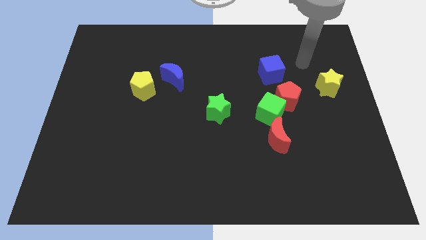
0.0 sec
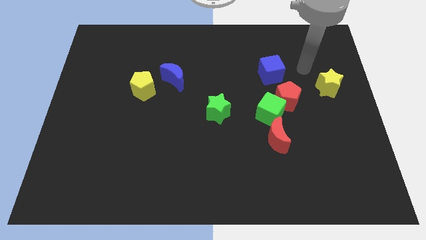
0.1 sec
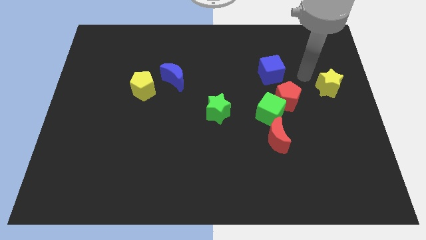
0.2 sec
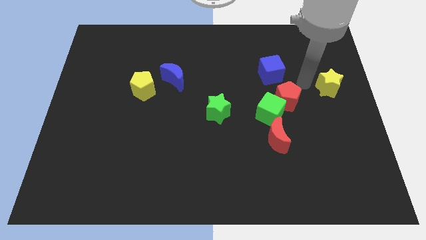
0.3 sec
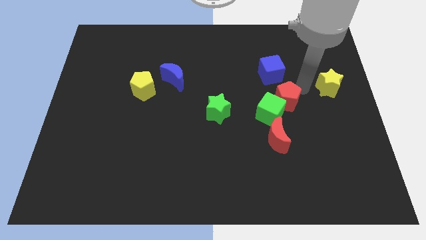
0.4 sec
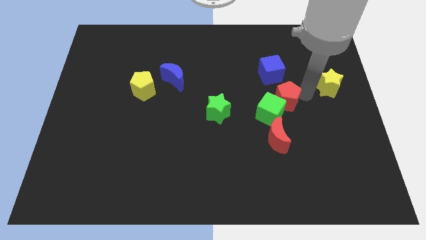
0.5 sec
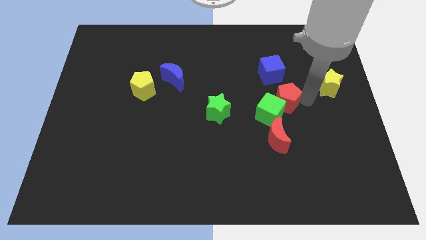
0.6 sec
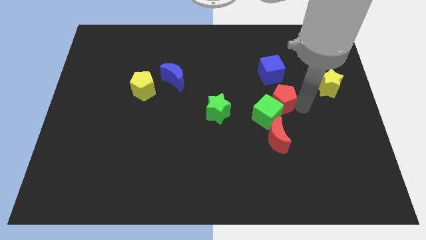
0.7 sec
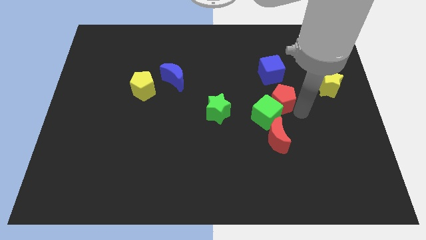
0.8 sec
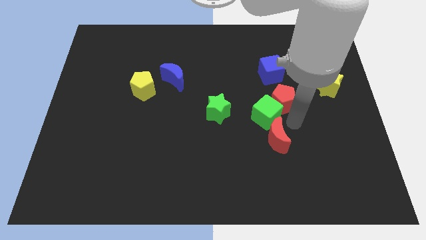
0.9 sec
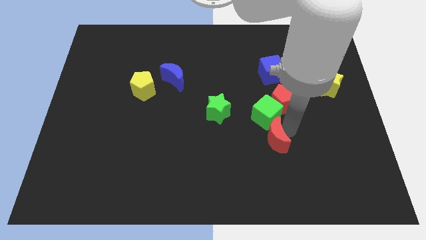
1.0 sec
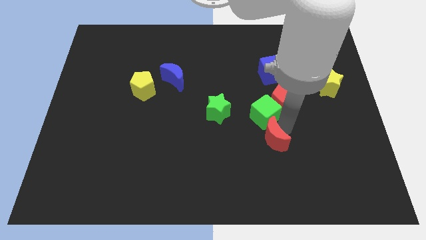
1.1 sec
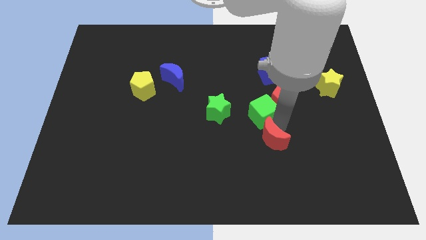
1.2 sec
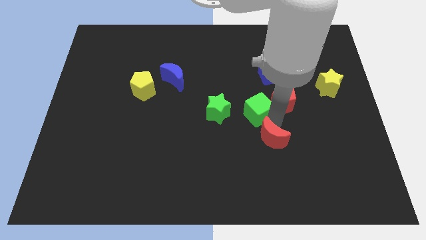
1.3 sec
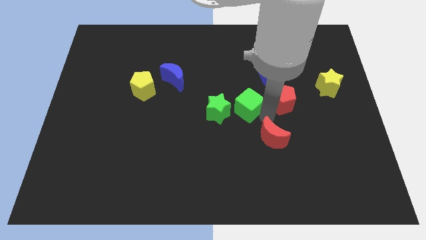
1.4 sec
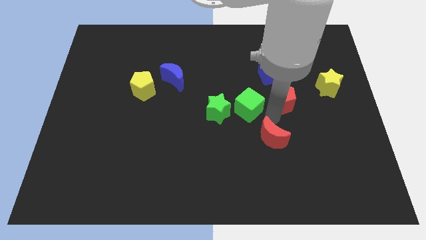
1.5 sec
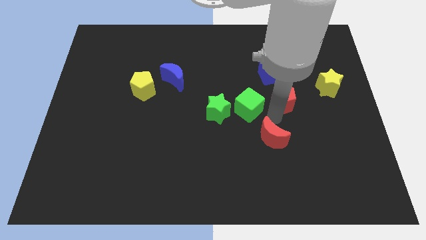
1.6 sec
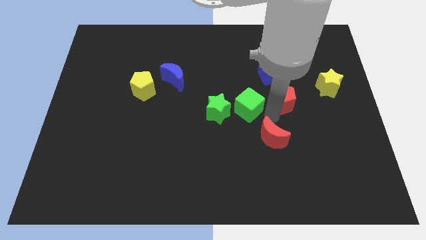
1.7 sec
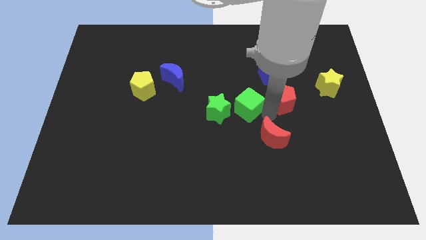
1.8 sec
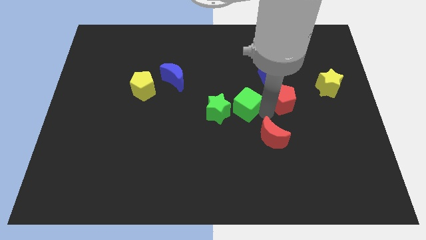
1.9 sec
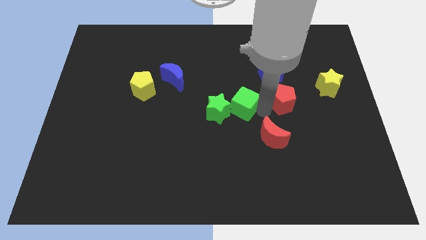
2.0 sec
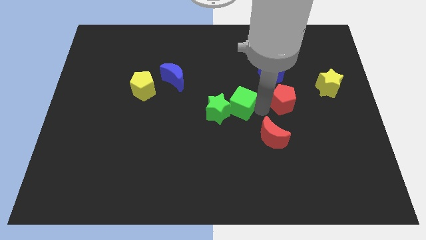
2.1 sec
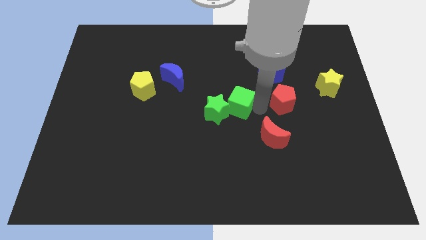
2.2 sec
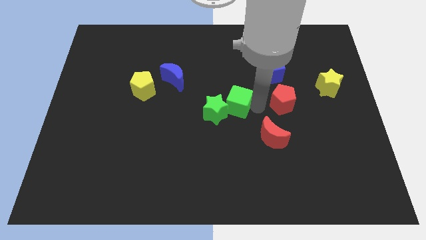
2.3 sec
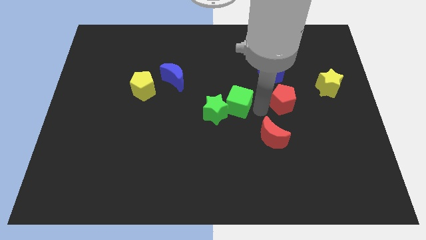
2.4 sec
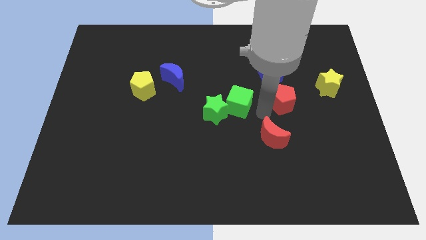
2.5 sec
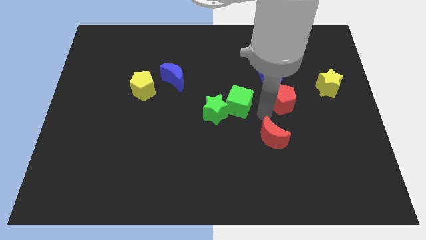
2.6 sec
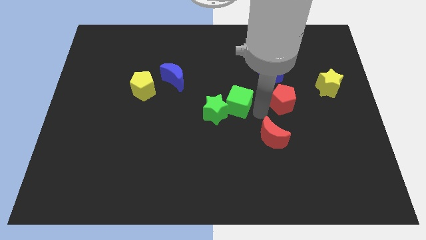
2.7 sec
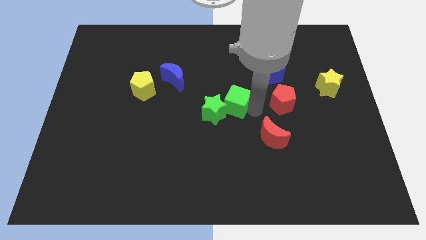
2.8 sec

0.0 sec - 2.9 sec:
pull the green cube apart from the red pentagon and red moon

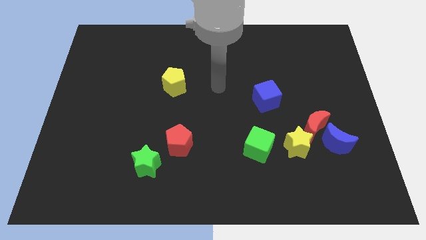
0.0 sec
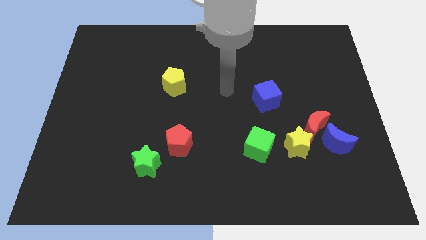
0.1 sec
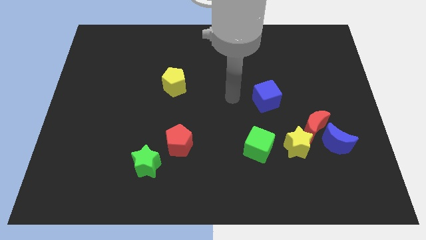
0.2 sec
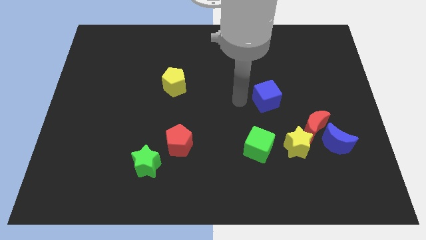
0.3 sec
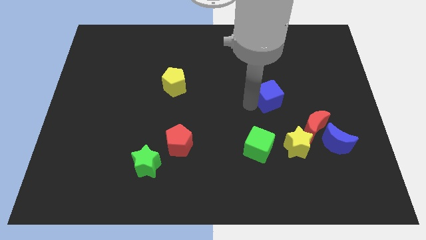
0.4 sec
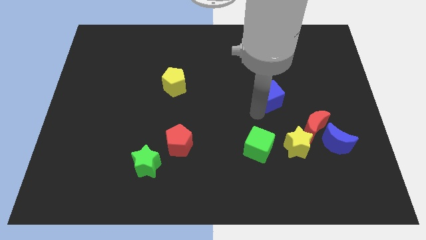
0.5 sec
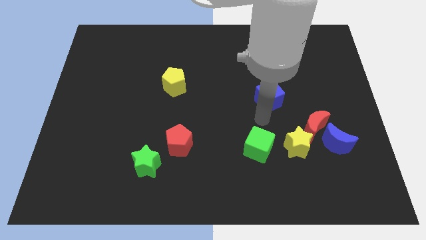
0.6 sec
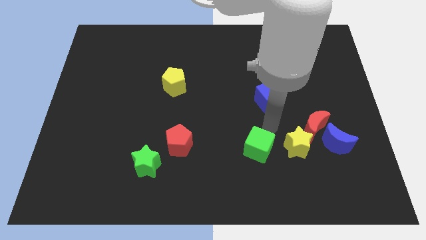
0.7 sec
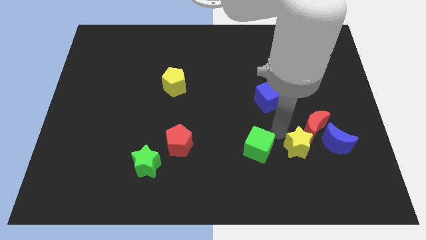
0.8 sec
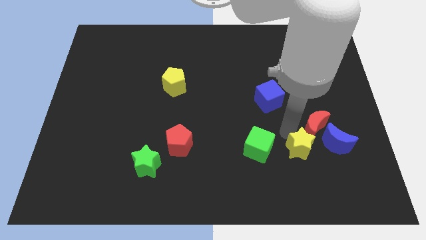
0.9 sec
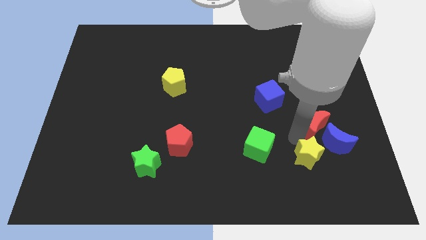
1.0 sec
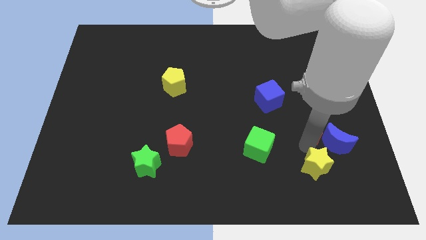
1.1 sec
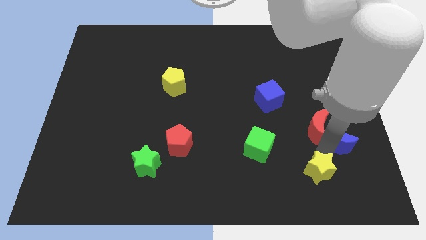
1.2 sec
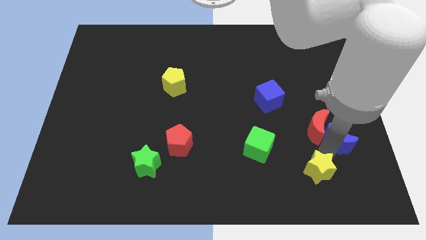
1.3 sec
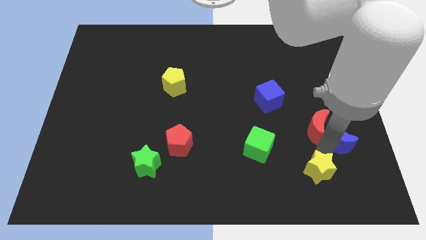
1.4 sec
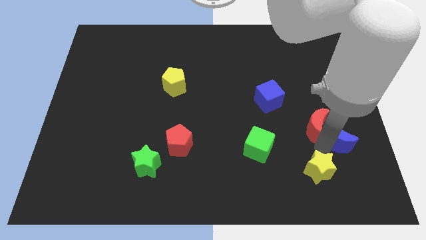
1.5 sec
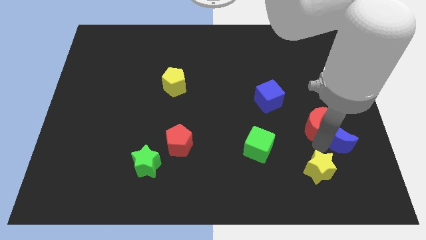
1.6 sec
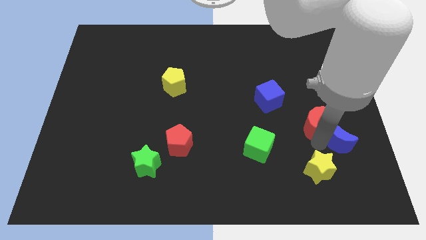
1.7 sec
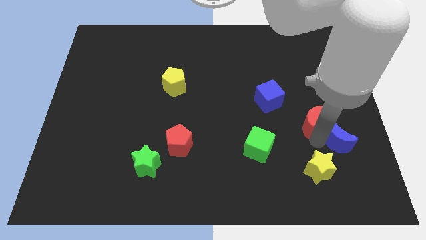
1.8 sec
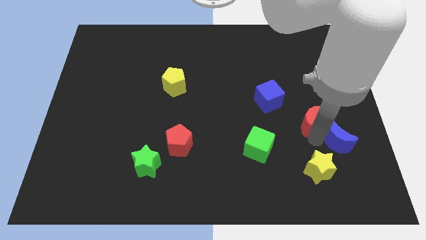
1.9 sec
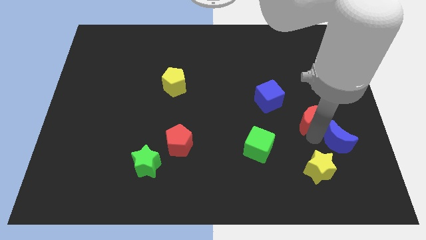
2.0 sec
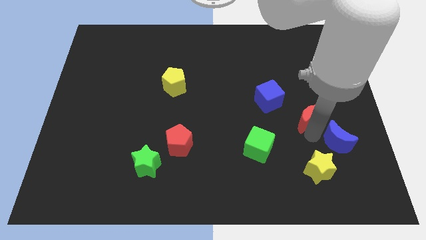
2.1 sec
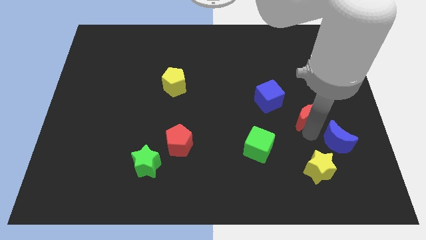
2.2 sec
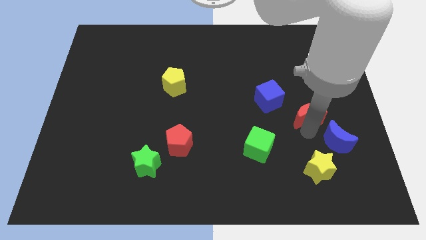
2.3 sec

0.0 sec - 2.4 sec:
separate the red moon from the blue moon and yellow star

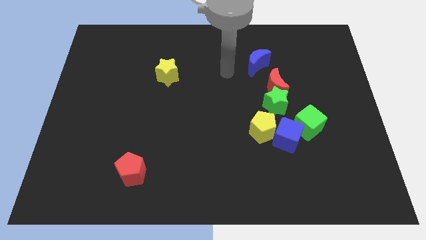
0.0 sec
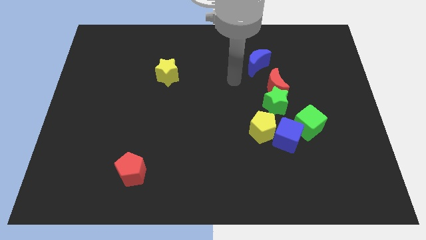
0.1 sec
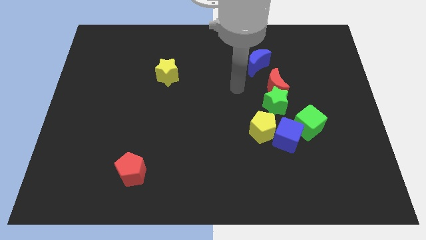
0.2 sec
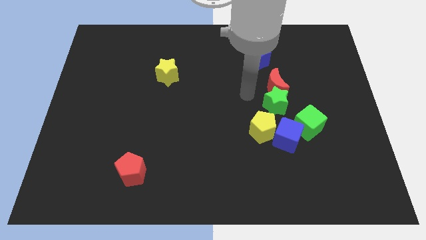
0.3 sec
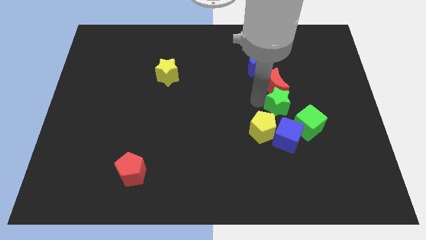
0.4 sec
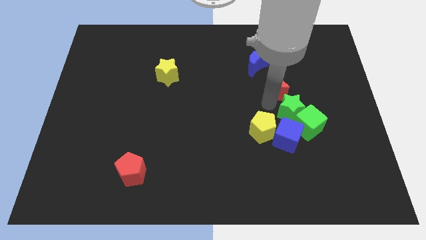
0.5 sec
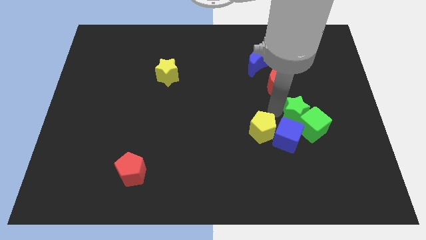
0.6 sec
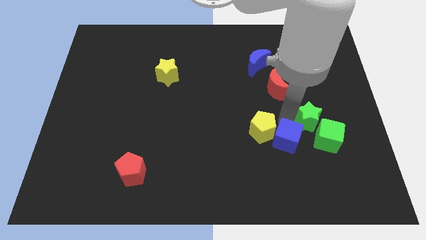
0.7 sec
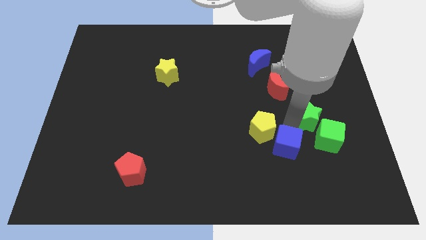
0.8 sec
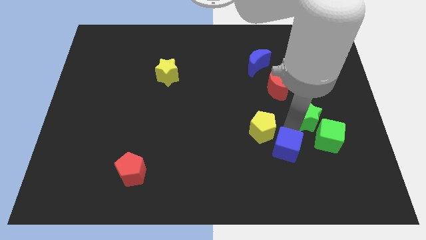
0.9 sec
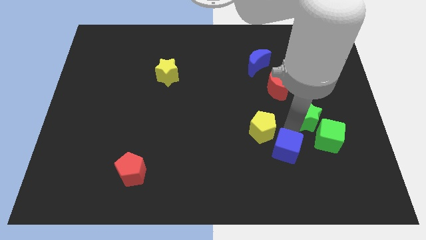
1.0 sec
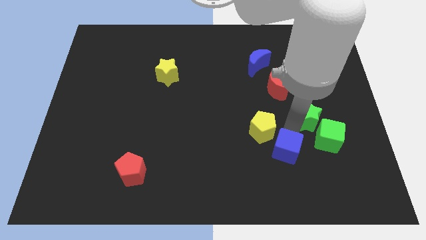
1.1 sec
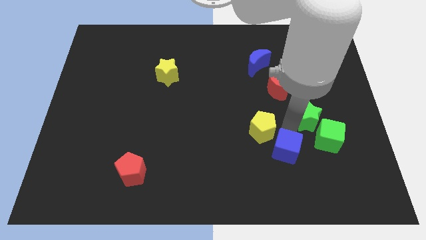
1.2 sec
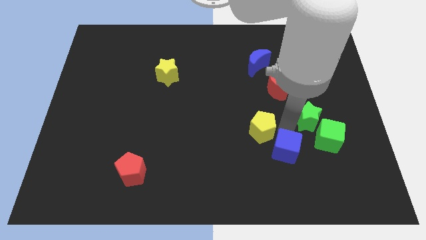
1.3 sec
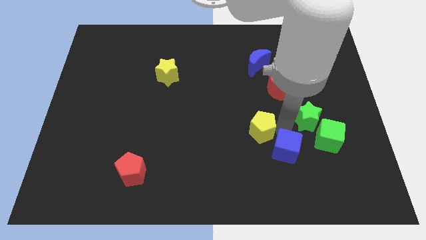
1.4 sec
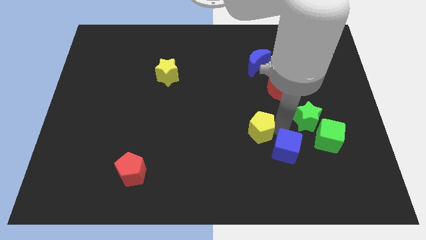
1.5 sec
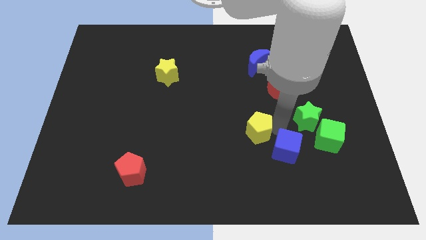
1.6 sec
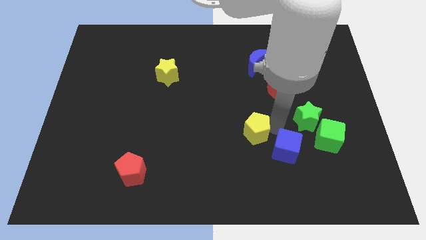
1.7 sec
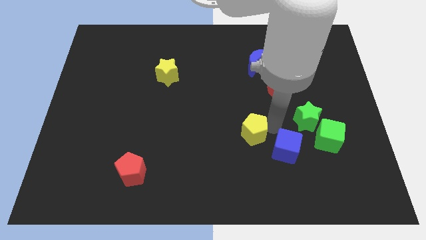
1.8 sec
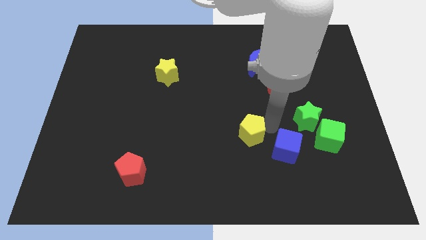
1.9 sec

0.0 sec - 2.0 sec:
separate the yellow pentagon from the blue cube and green star

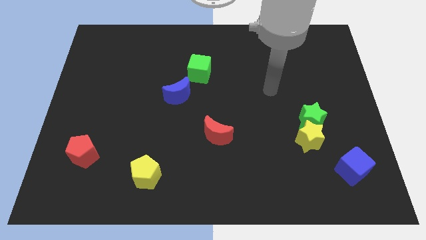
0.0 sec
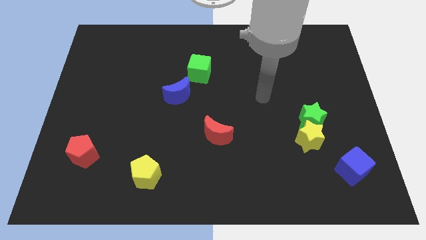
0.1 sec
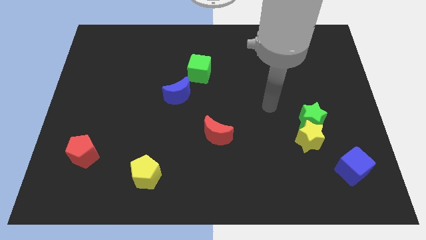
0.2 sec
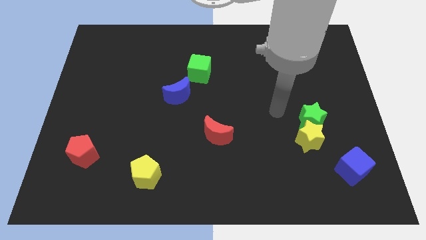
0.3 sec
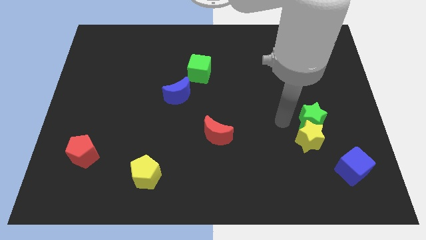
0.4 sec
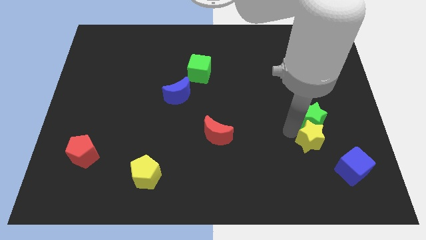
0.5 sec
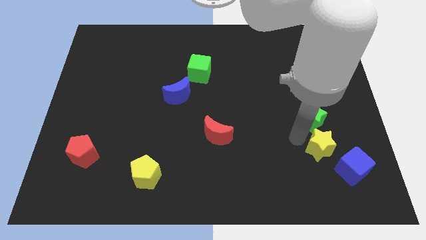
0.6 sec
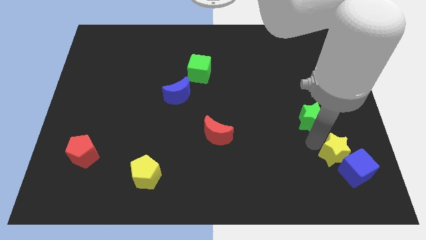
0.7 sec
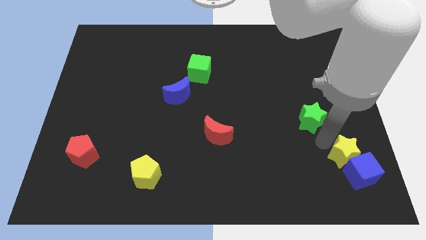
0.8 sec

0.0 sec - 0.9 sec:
pull the green star apart from the yellow star

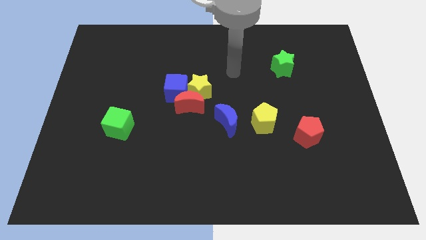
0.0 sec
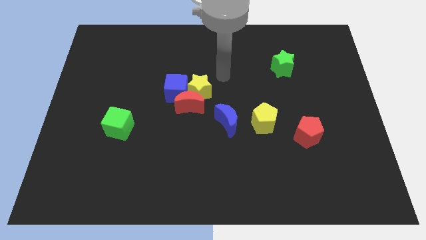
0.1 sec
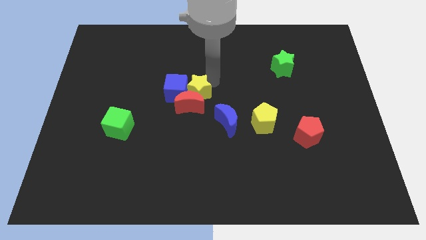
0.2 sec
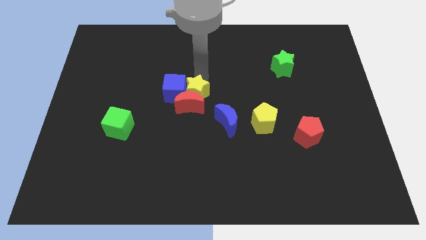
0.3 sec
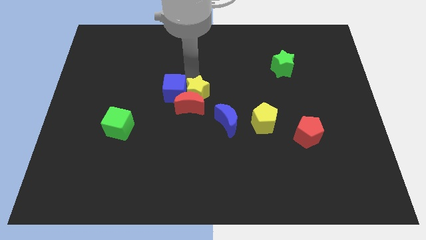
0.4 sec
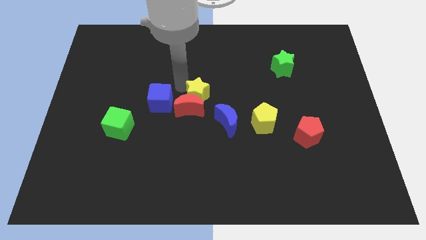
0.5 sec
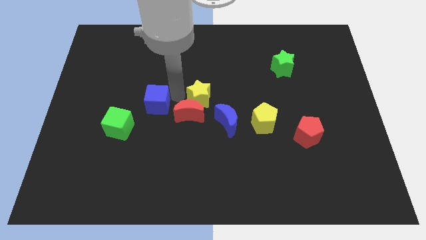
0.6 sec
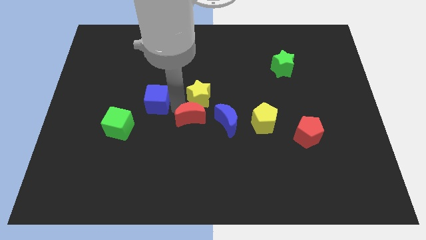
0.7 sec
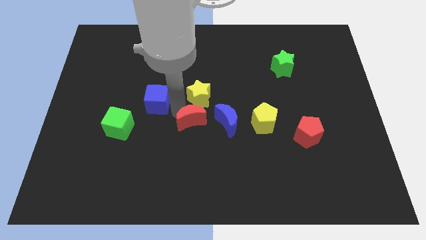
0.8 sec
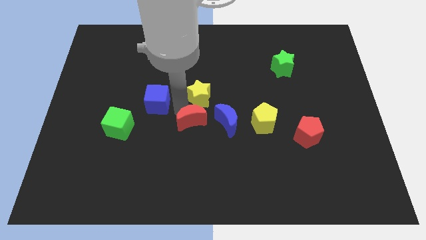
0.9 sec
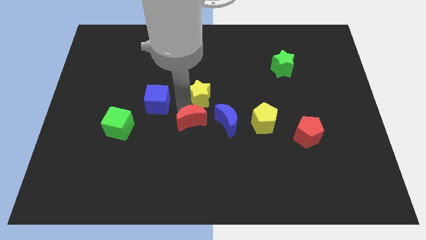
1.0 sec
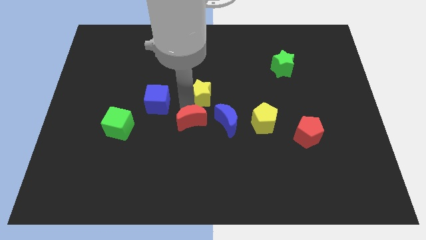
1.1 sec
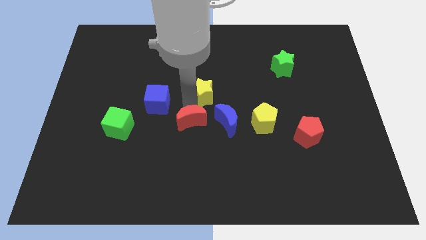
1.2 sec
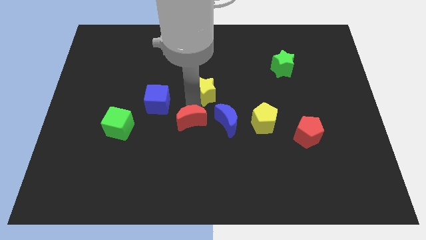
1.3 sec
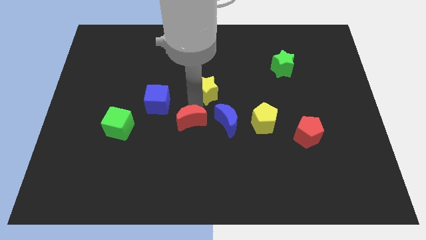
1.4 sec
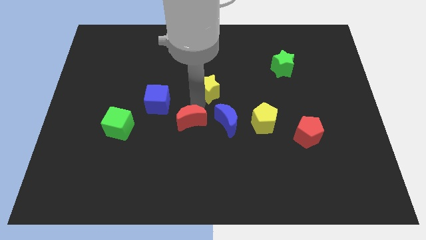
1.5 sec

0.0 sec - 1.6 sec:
move the yellow star away from the red moon and blue cube
